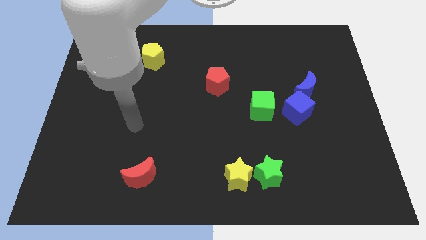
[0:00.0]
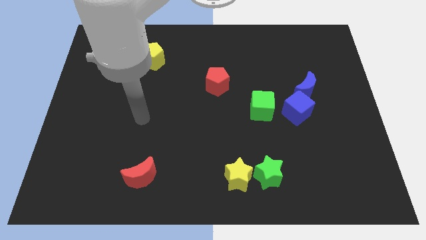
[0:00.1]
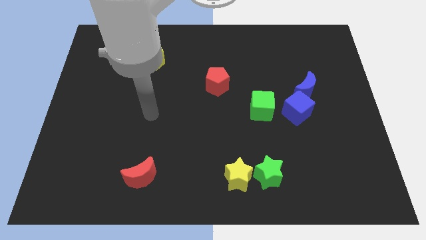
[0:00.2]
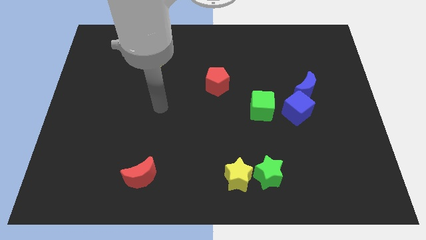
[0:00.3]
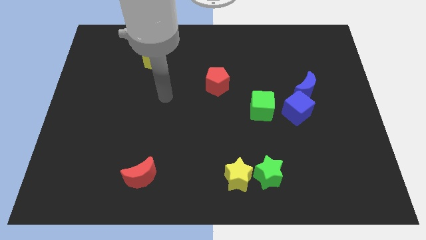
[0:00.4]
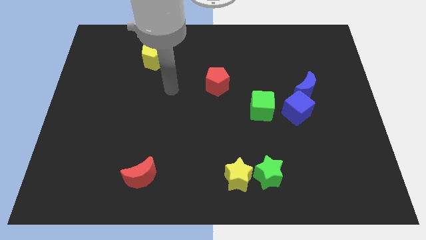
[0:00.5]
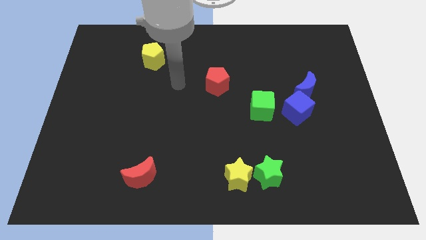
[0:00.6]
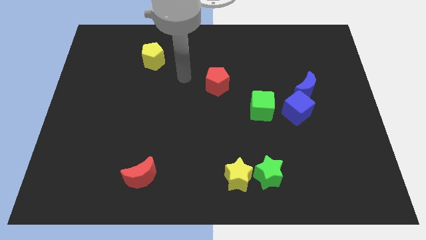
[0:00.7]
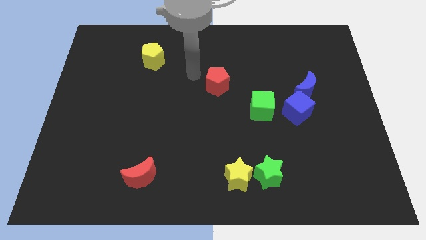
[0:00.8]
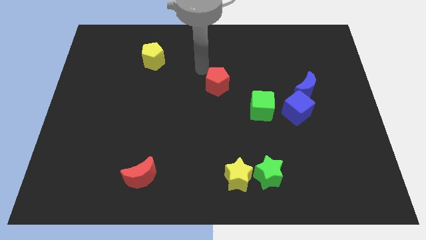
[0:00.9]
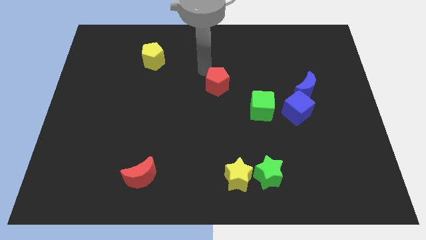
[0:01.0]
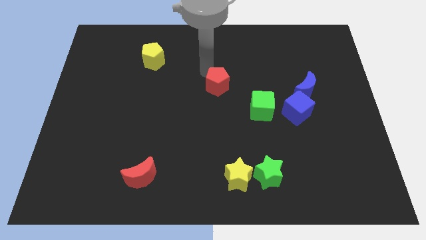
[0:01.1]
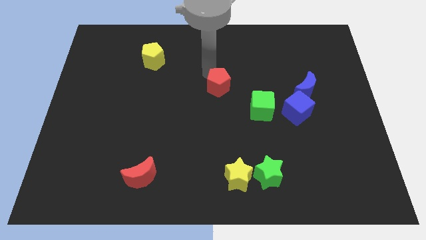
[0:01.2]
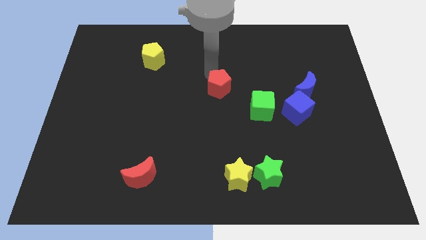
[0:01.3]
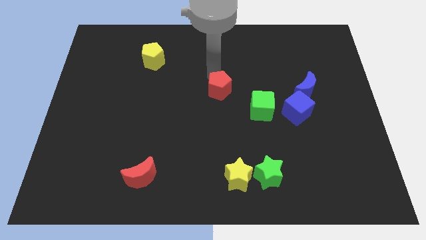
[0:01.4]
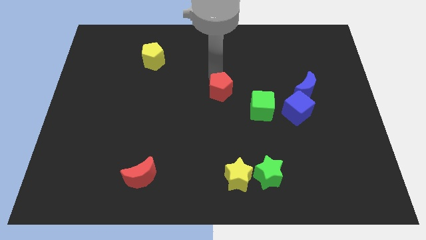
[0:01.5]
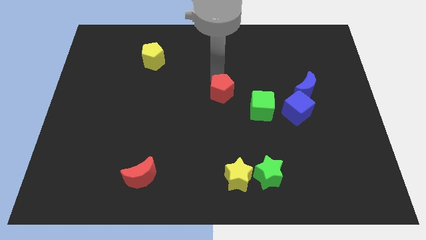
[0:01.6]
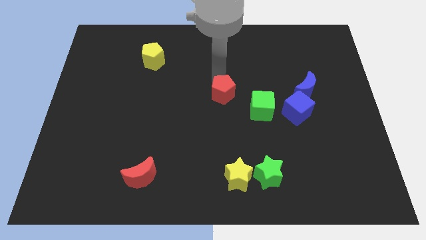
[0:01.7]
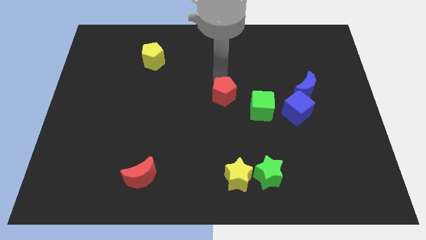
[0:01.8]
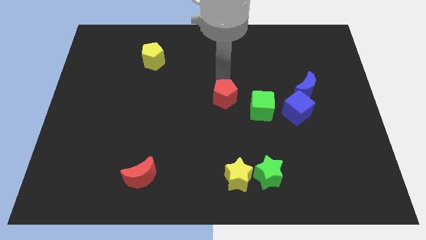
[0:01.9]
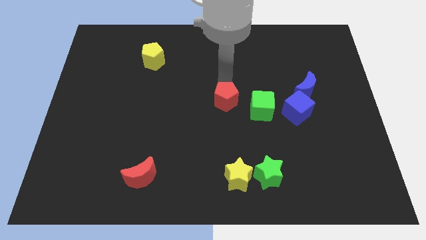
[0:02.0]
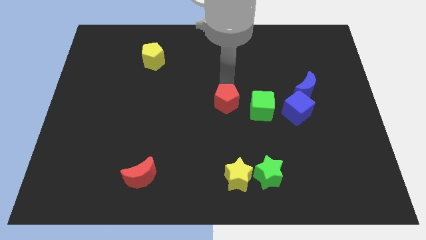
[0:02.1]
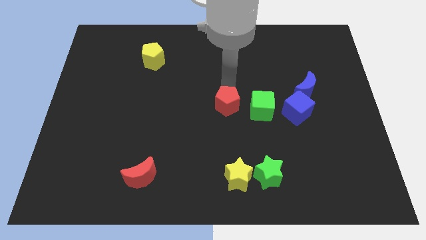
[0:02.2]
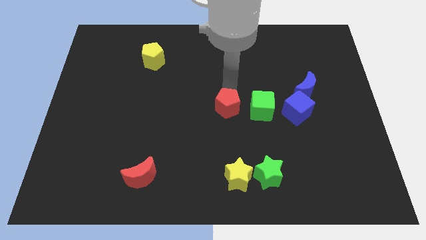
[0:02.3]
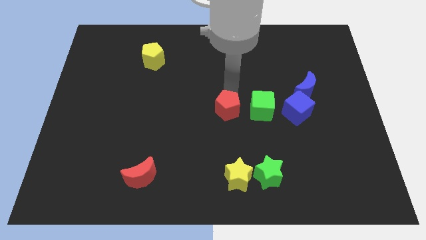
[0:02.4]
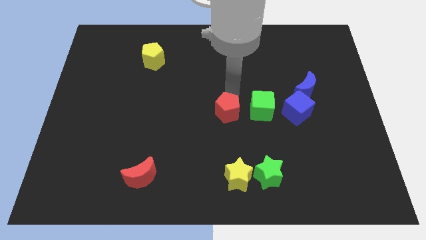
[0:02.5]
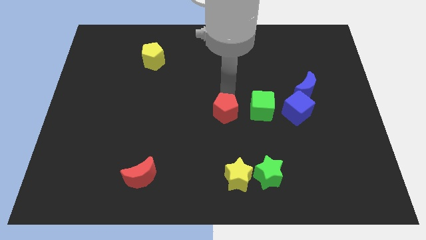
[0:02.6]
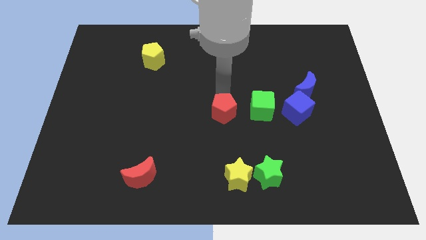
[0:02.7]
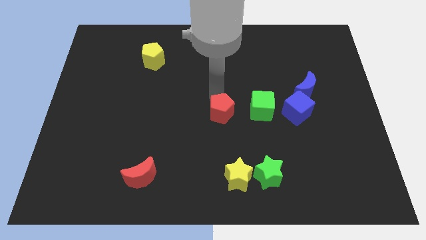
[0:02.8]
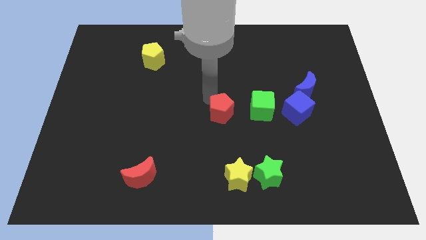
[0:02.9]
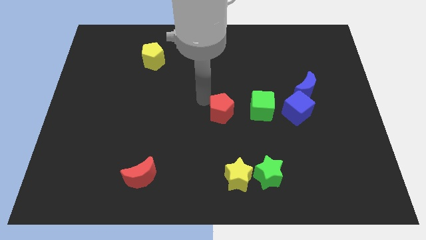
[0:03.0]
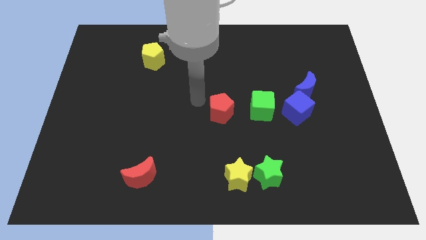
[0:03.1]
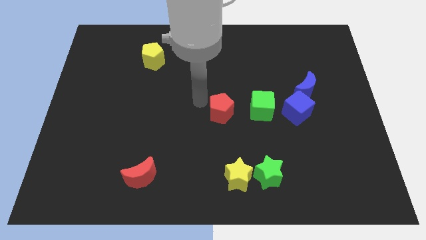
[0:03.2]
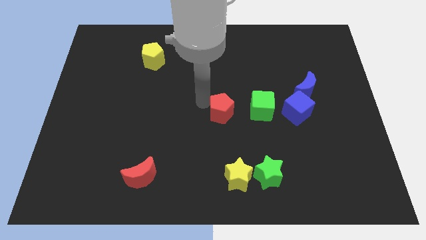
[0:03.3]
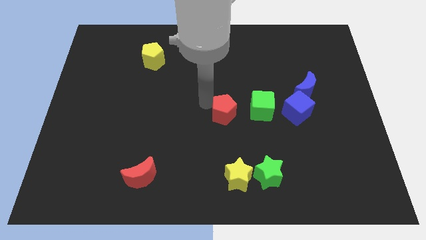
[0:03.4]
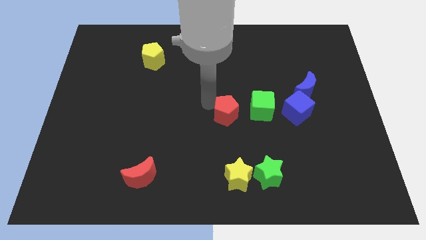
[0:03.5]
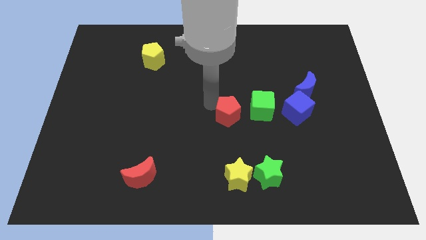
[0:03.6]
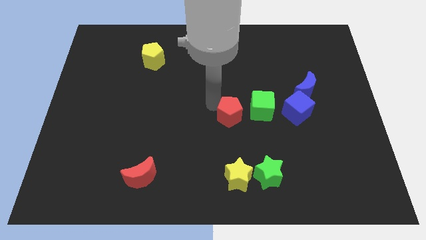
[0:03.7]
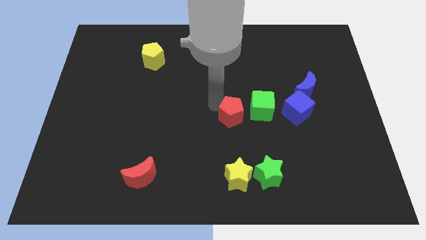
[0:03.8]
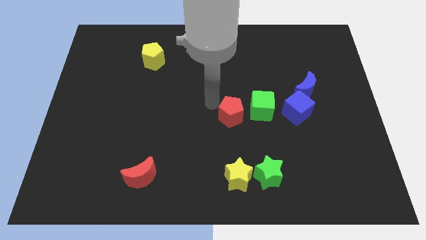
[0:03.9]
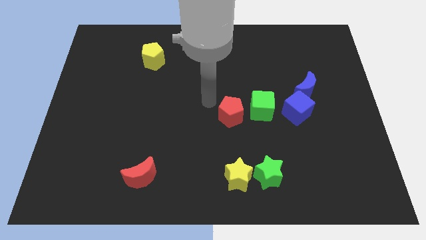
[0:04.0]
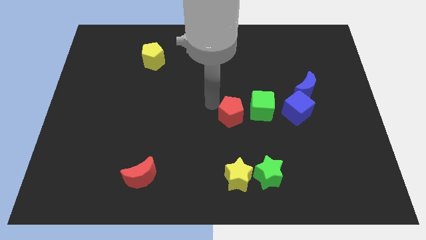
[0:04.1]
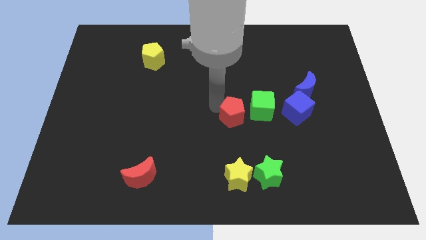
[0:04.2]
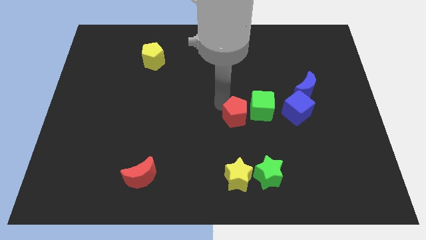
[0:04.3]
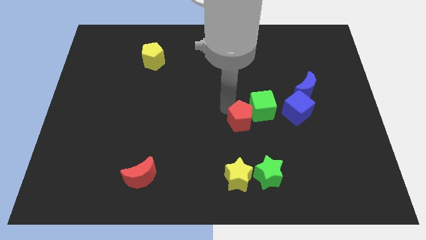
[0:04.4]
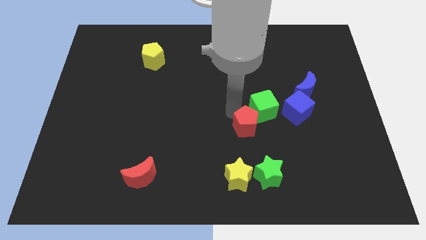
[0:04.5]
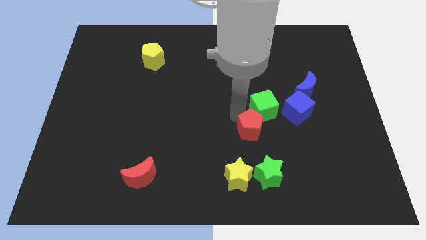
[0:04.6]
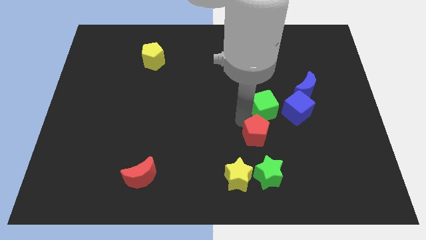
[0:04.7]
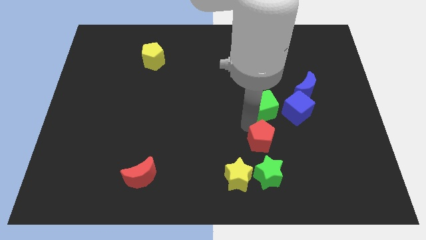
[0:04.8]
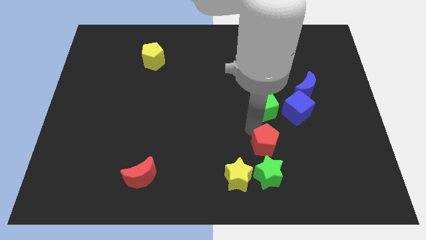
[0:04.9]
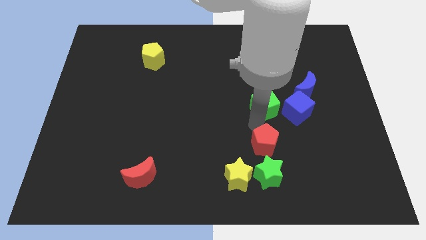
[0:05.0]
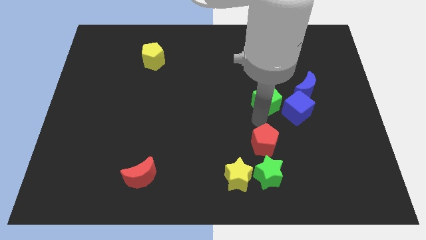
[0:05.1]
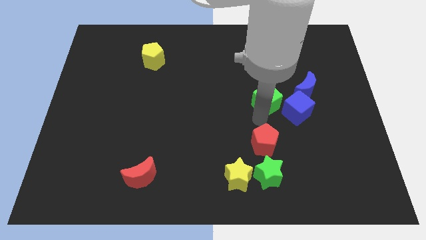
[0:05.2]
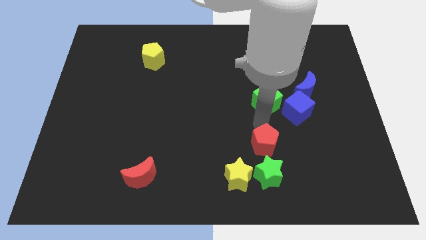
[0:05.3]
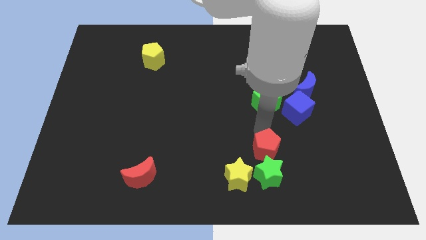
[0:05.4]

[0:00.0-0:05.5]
move the red pentagon to the green star

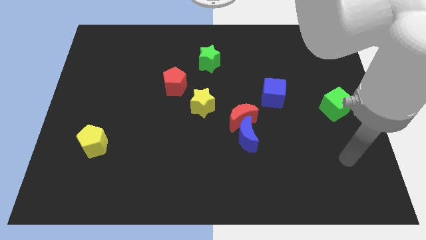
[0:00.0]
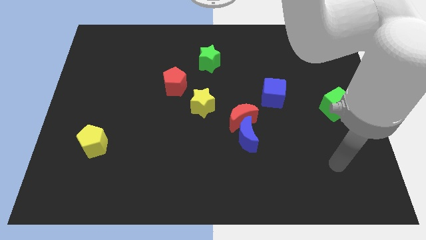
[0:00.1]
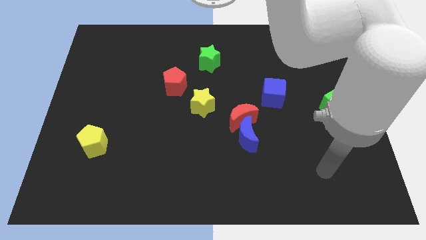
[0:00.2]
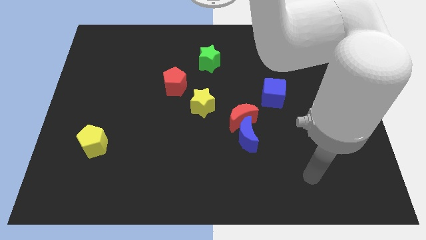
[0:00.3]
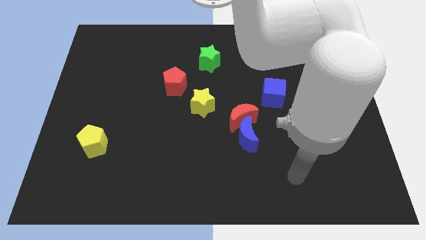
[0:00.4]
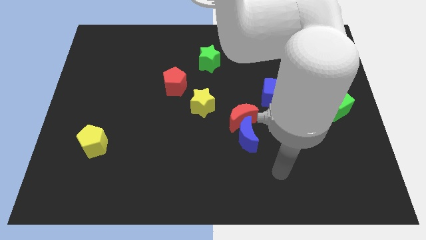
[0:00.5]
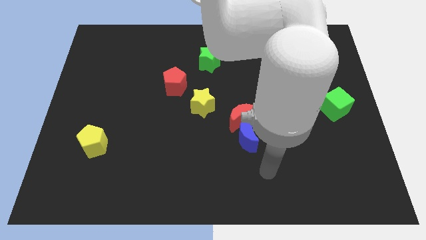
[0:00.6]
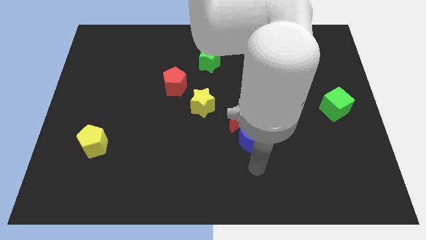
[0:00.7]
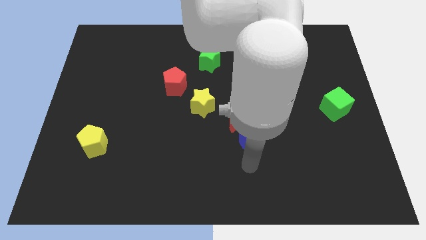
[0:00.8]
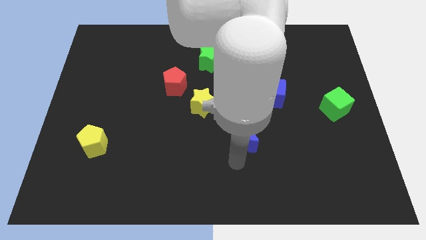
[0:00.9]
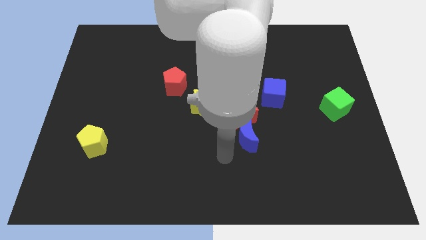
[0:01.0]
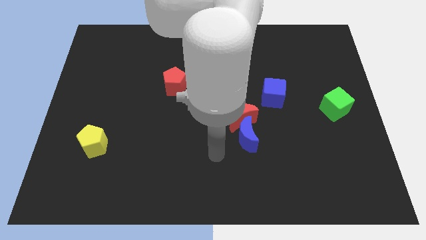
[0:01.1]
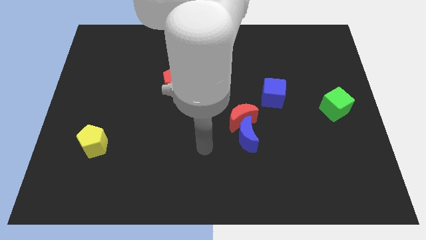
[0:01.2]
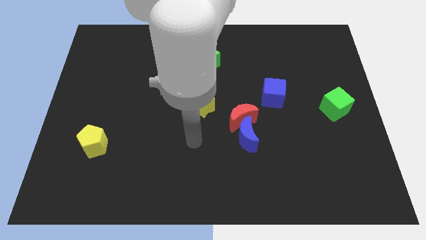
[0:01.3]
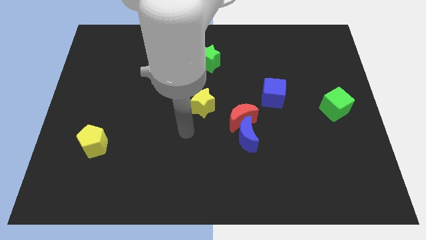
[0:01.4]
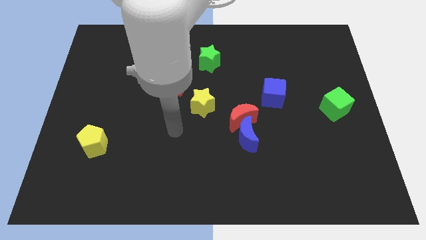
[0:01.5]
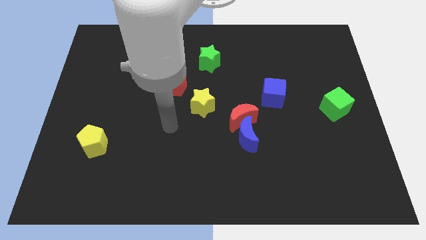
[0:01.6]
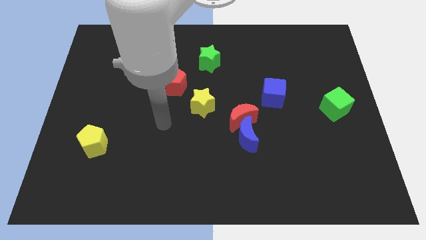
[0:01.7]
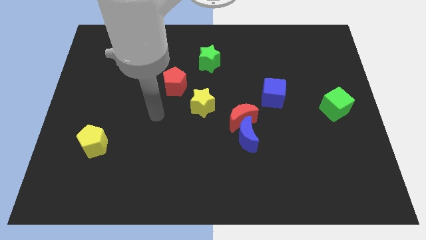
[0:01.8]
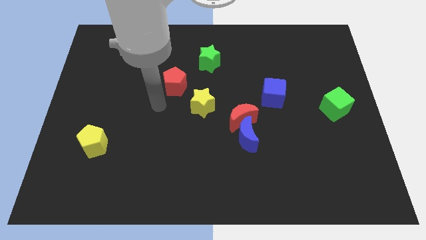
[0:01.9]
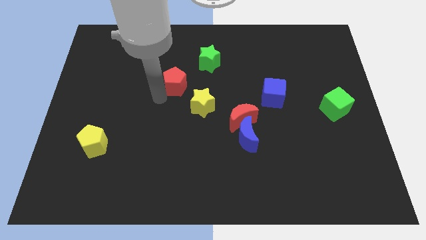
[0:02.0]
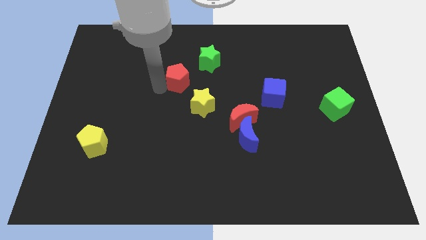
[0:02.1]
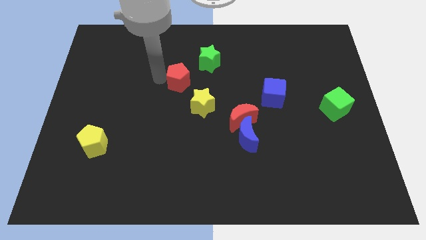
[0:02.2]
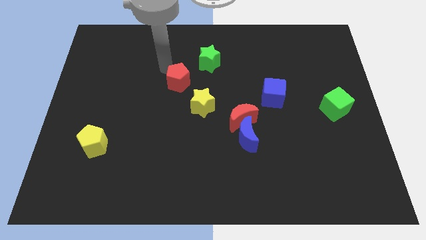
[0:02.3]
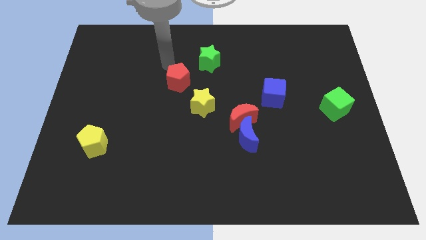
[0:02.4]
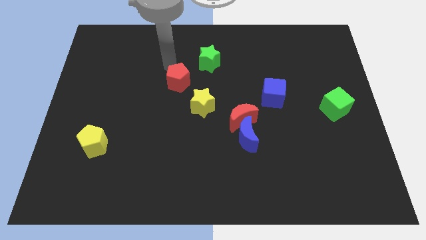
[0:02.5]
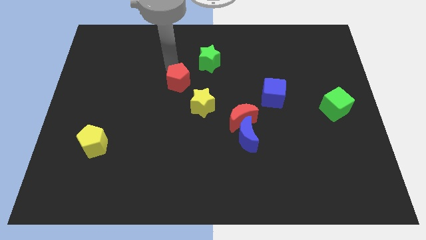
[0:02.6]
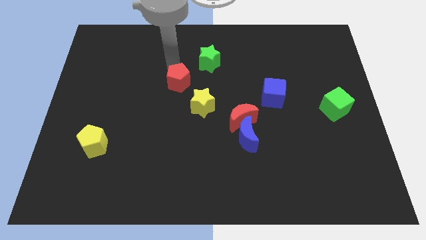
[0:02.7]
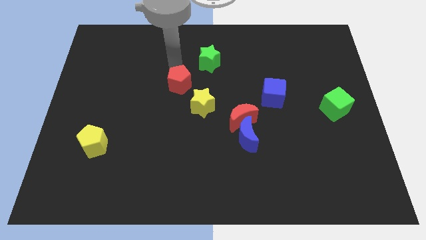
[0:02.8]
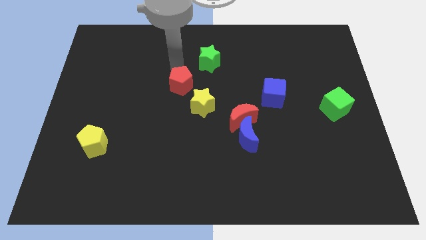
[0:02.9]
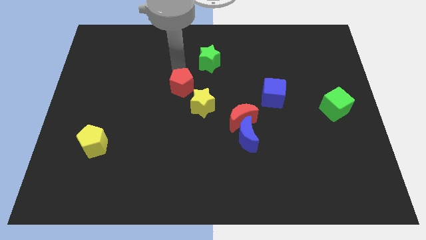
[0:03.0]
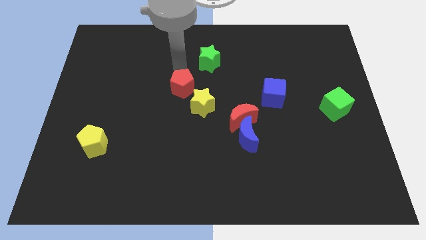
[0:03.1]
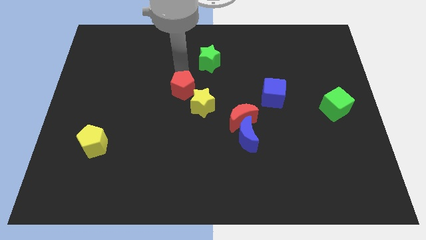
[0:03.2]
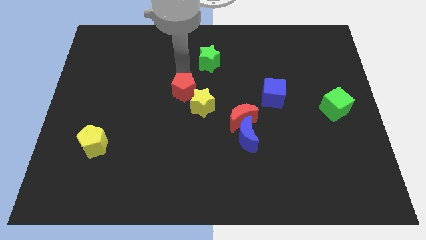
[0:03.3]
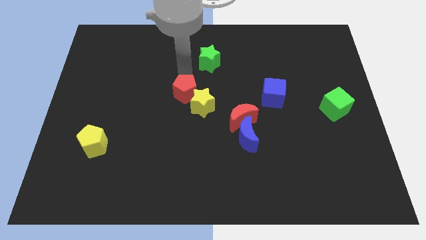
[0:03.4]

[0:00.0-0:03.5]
push the red pentagon to the yellow star
